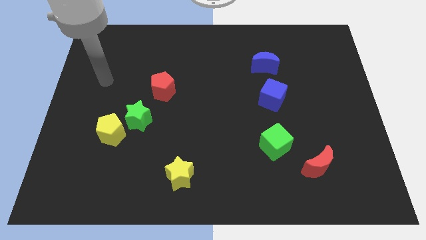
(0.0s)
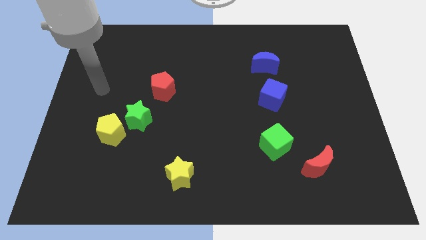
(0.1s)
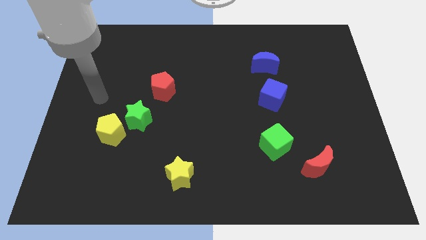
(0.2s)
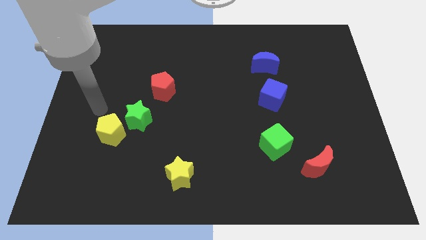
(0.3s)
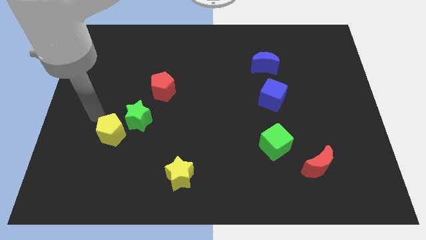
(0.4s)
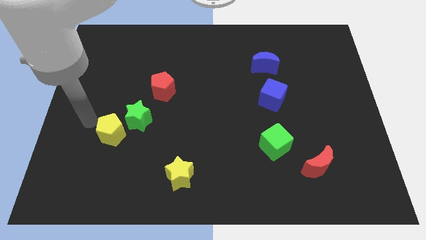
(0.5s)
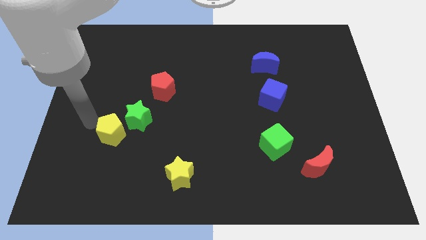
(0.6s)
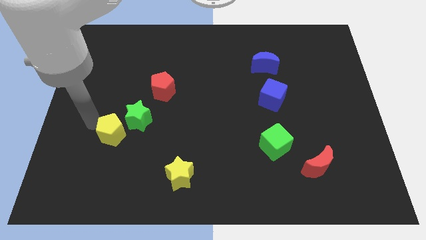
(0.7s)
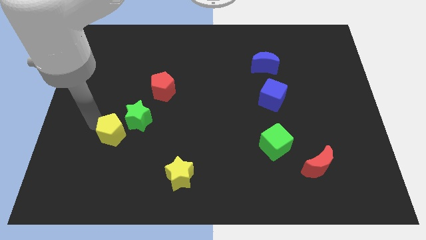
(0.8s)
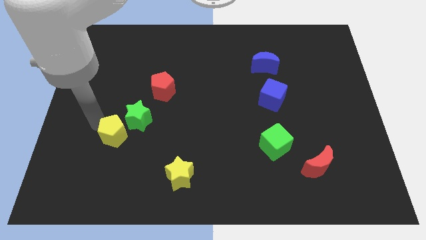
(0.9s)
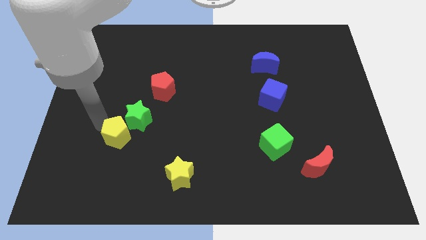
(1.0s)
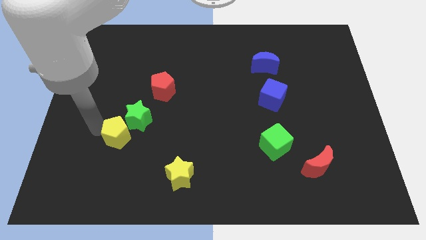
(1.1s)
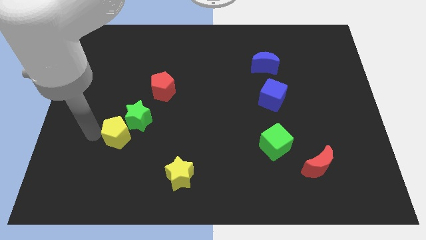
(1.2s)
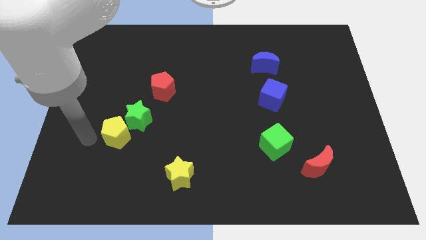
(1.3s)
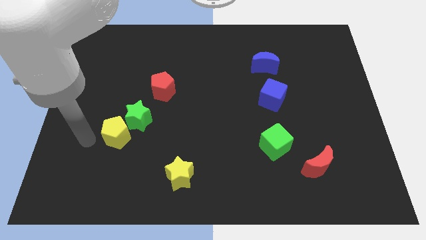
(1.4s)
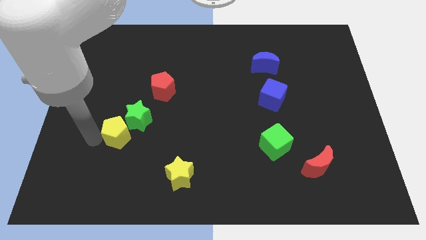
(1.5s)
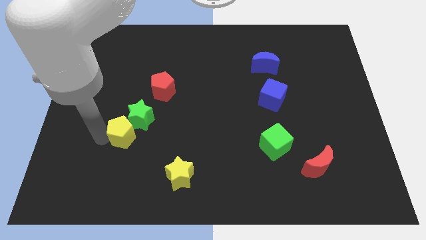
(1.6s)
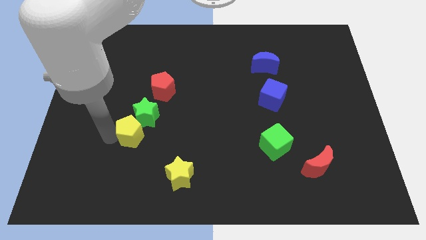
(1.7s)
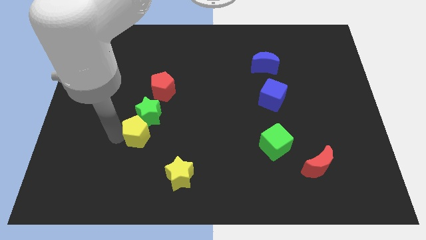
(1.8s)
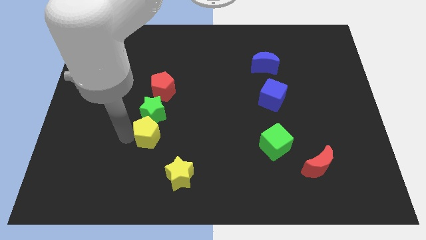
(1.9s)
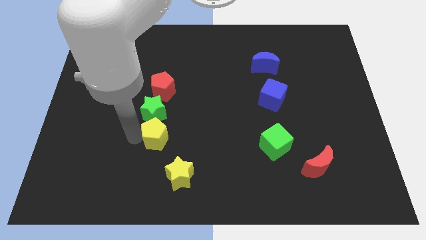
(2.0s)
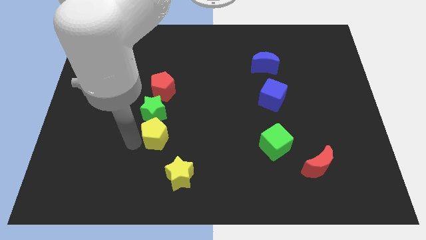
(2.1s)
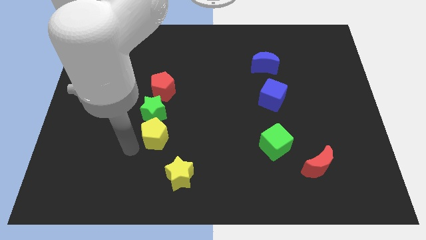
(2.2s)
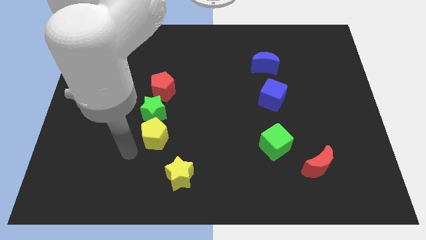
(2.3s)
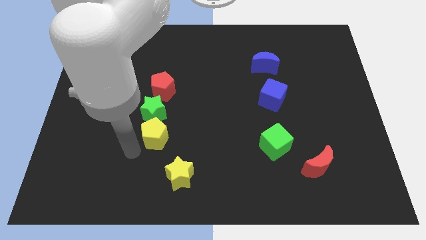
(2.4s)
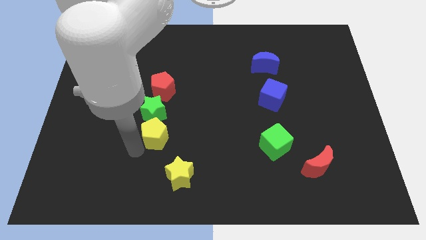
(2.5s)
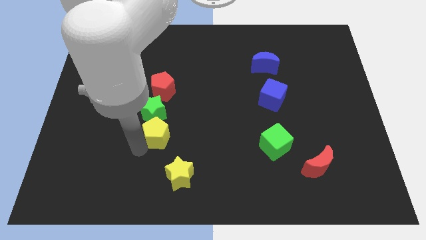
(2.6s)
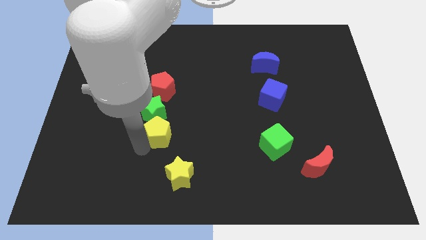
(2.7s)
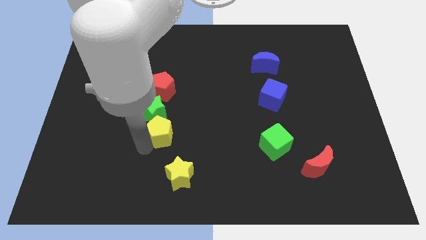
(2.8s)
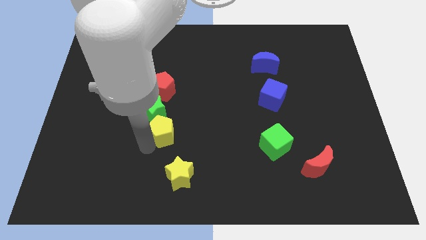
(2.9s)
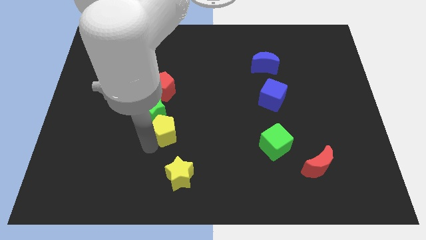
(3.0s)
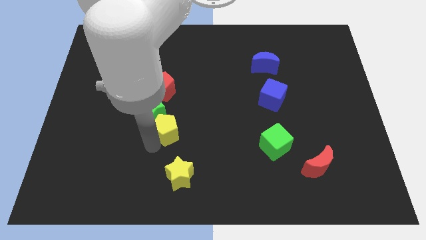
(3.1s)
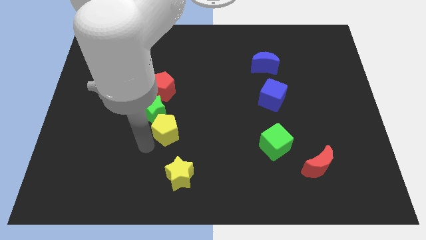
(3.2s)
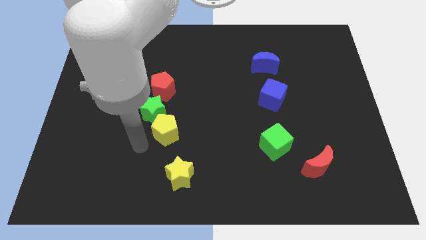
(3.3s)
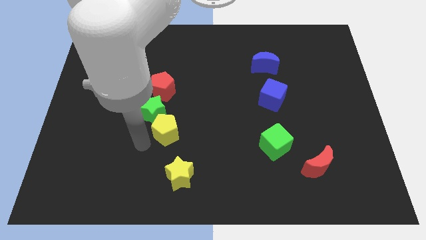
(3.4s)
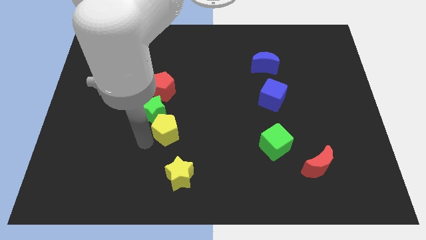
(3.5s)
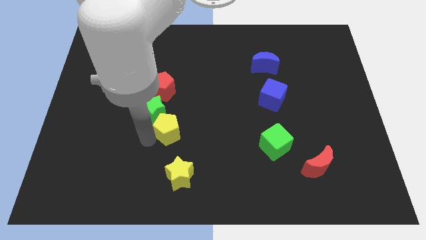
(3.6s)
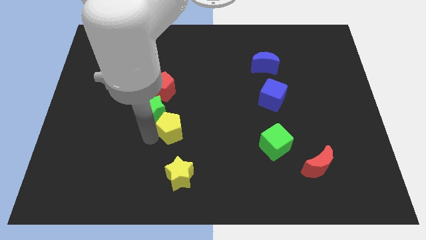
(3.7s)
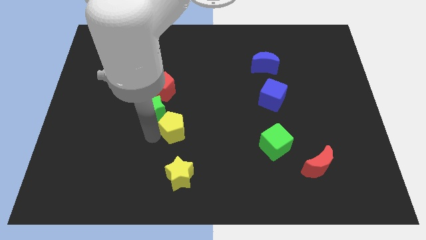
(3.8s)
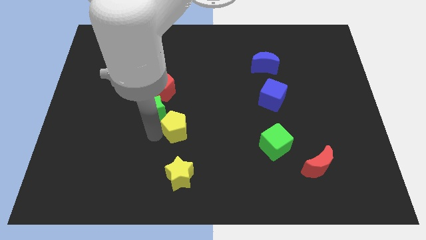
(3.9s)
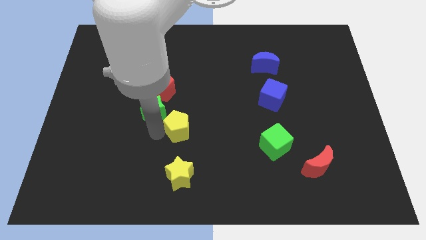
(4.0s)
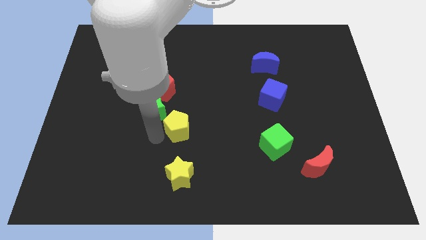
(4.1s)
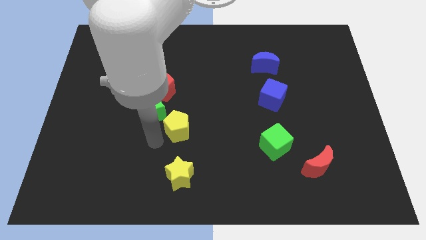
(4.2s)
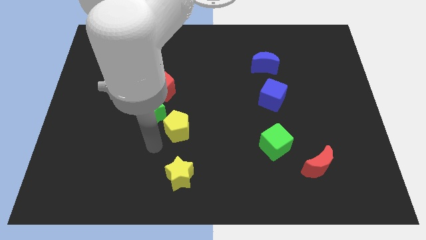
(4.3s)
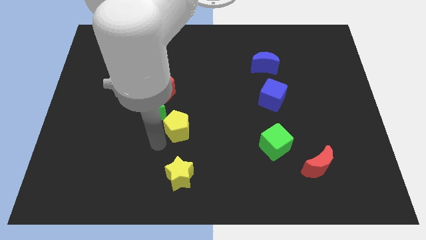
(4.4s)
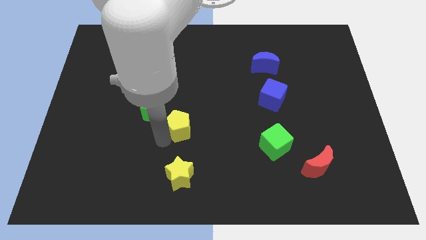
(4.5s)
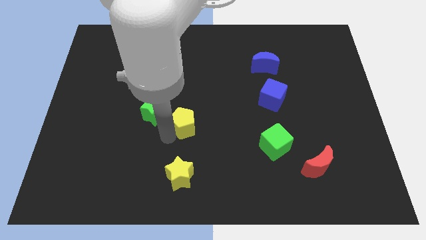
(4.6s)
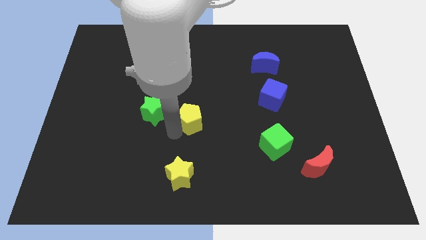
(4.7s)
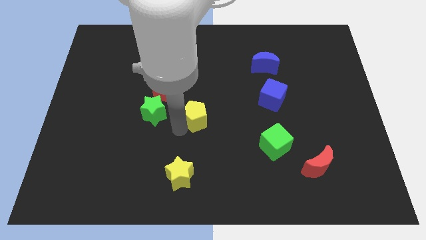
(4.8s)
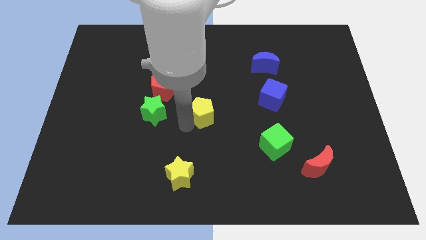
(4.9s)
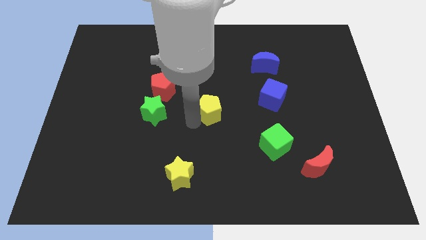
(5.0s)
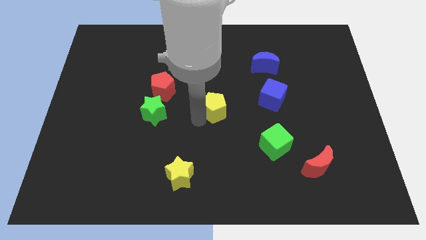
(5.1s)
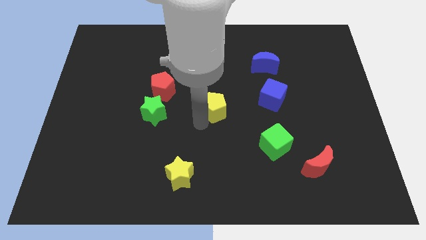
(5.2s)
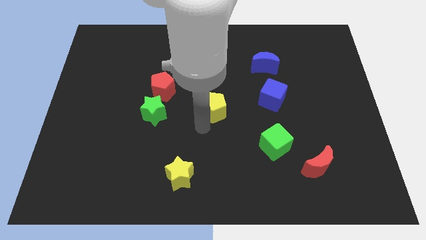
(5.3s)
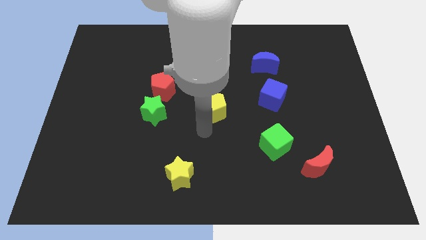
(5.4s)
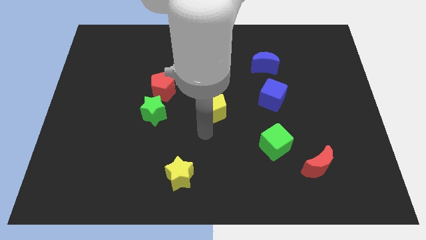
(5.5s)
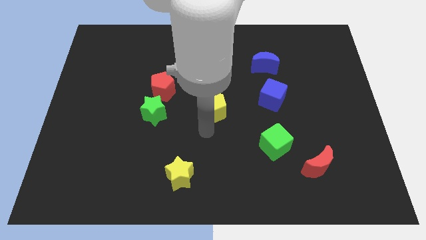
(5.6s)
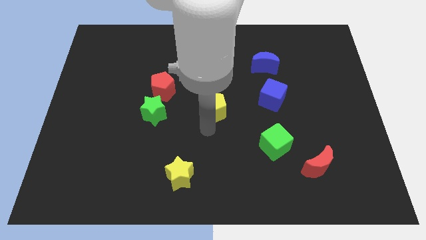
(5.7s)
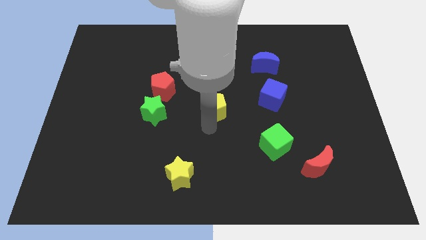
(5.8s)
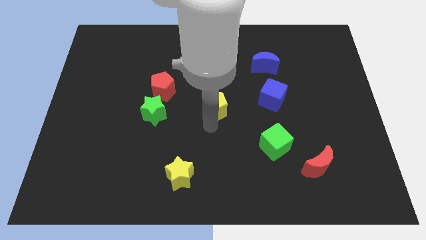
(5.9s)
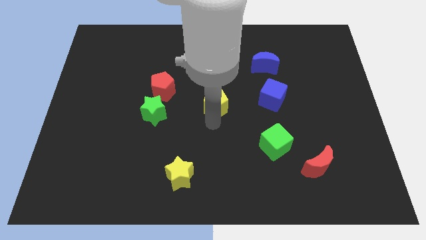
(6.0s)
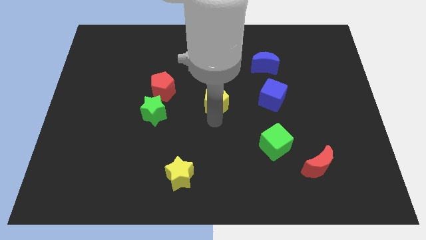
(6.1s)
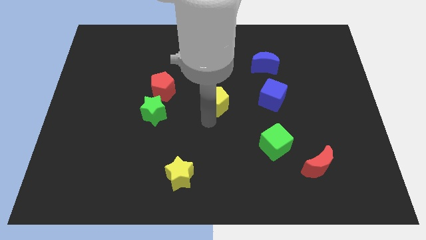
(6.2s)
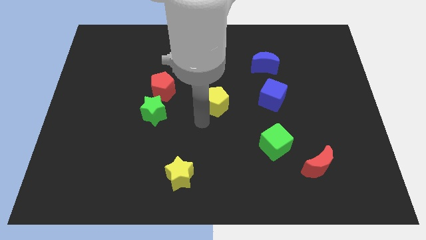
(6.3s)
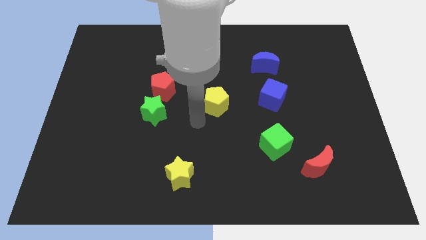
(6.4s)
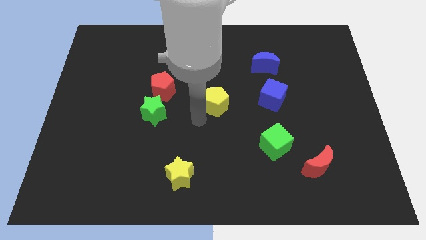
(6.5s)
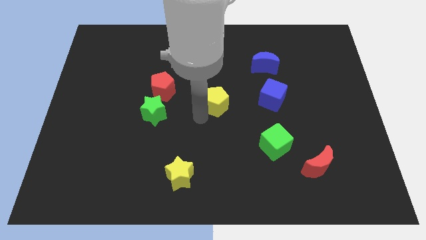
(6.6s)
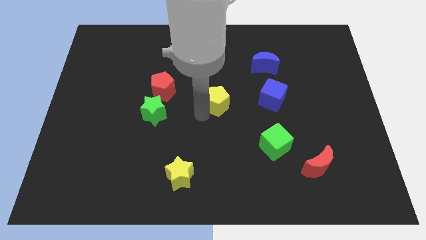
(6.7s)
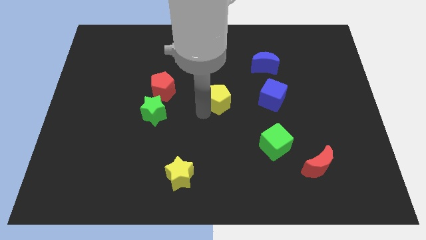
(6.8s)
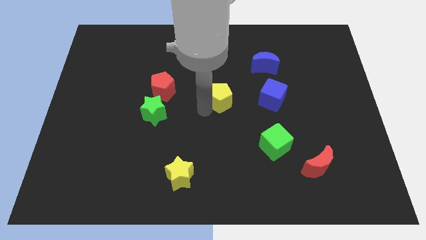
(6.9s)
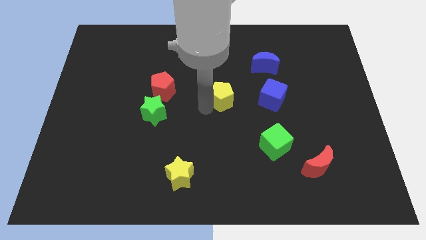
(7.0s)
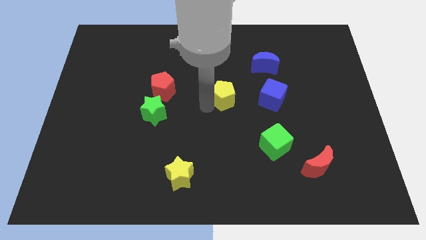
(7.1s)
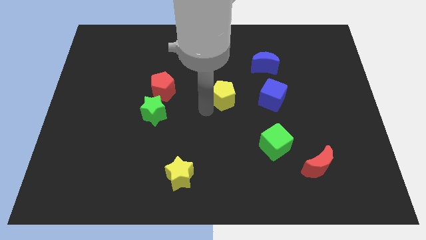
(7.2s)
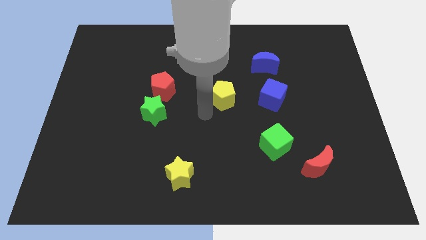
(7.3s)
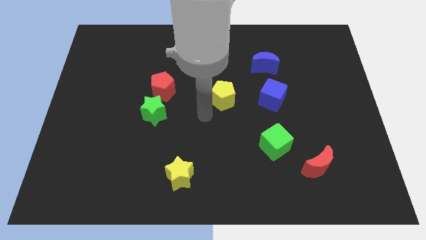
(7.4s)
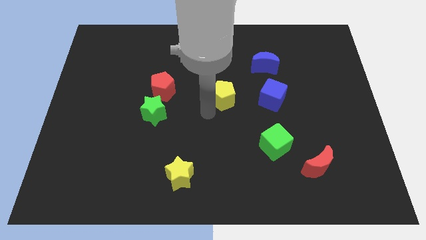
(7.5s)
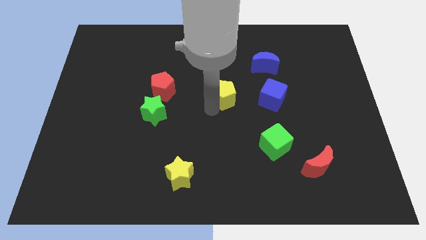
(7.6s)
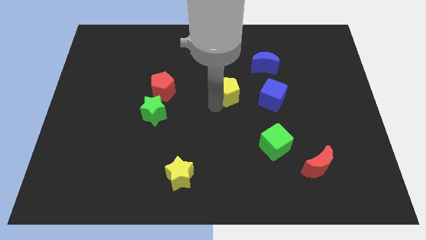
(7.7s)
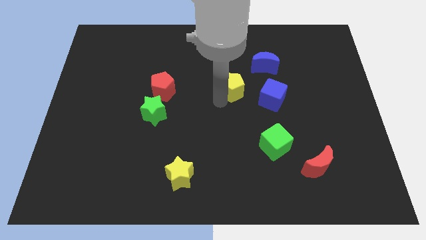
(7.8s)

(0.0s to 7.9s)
move the yellow pentagon diagonally down and to the left of the blue moon

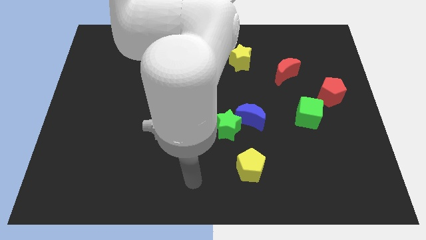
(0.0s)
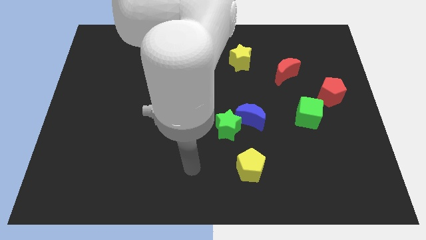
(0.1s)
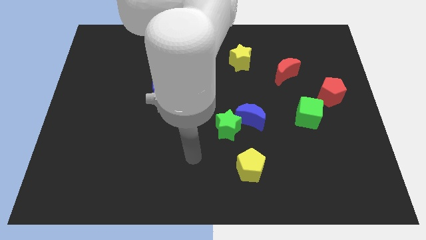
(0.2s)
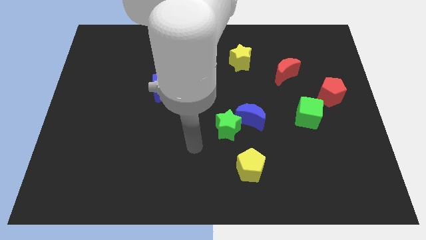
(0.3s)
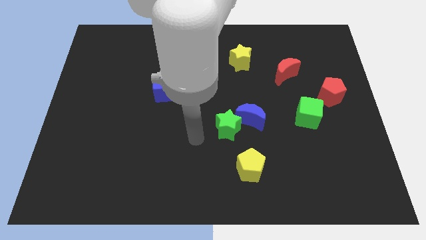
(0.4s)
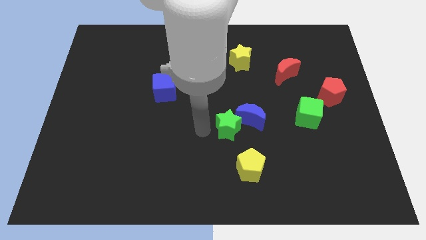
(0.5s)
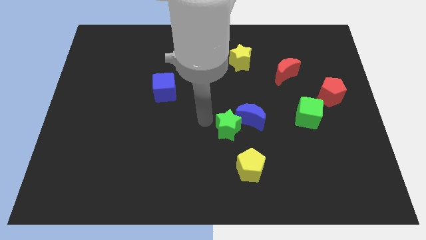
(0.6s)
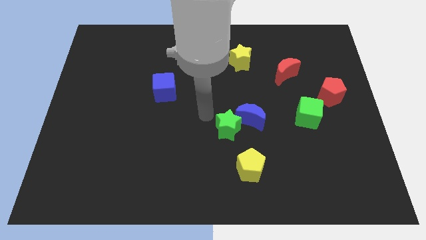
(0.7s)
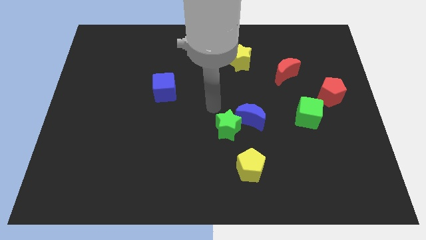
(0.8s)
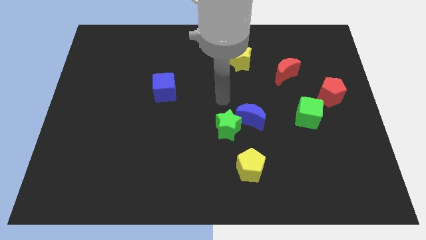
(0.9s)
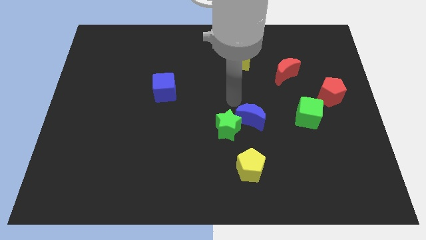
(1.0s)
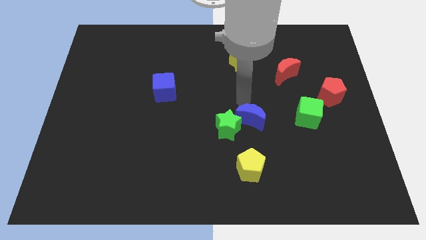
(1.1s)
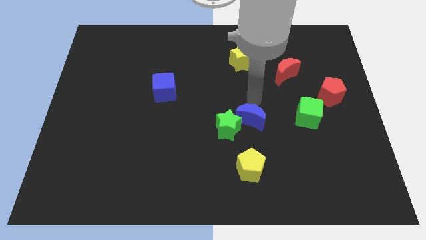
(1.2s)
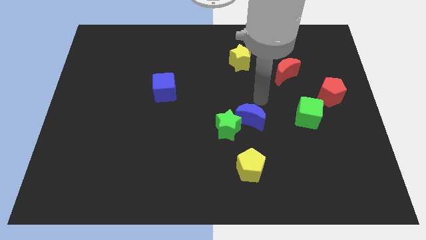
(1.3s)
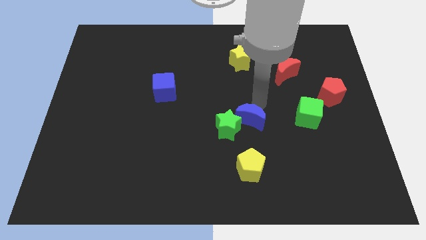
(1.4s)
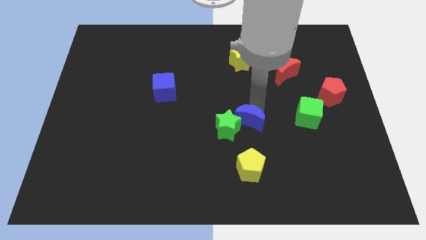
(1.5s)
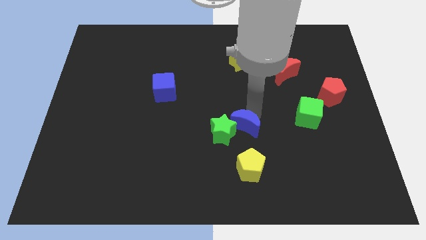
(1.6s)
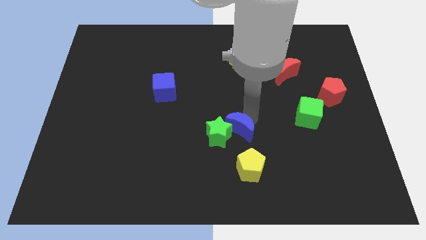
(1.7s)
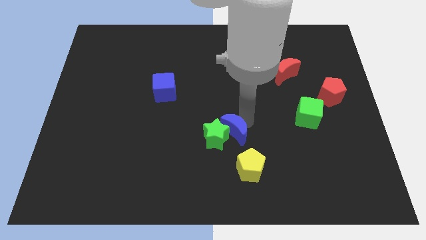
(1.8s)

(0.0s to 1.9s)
slide the blue moon to the top left side of the yellow pentagon
